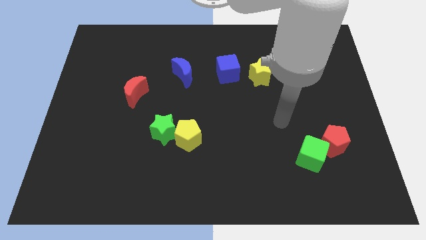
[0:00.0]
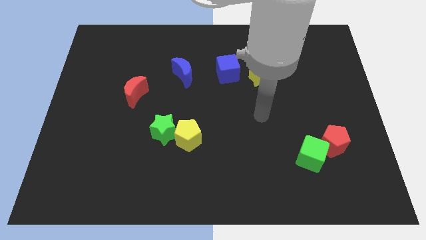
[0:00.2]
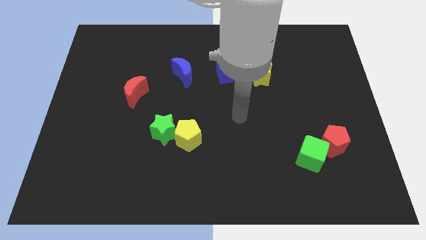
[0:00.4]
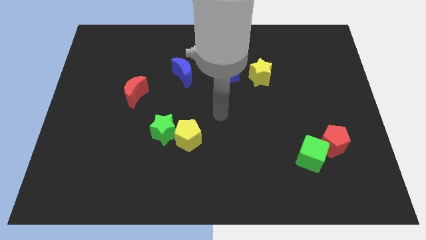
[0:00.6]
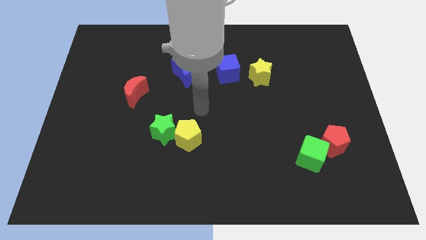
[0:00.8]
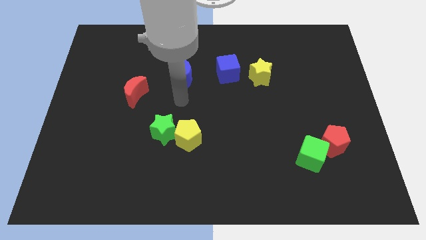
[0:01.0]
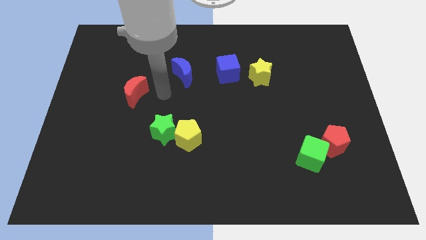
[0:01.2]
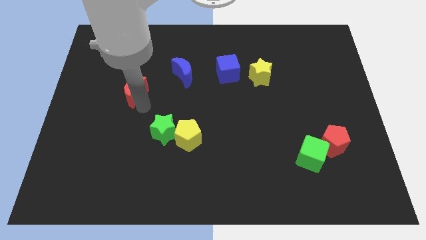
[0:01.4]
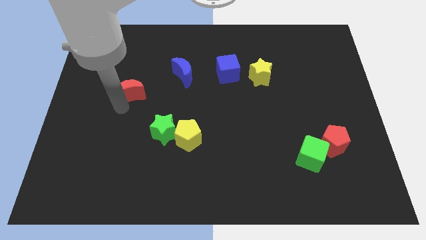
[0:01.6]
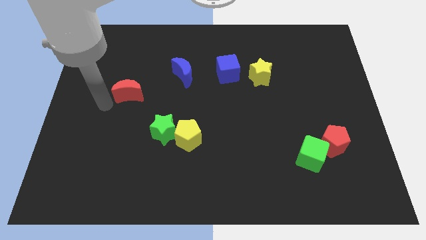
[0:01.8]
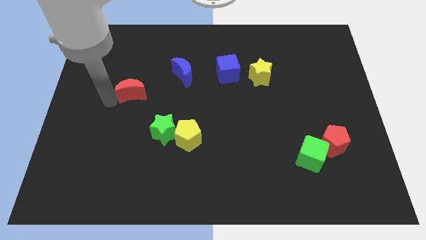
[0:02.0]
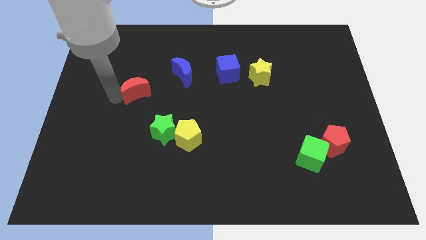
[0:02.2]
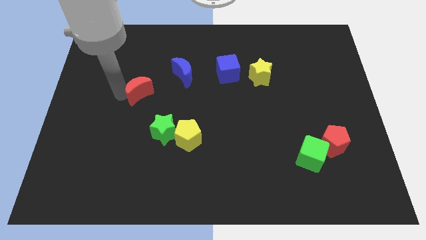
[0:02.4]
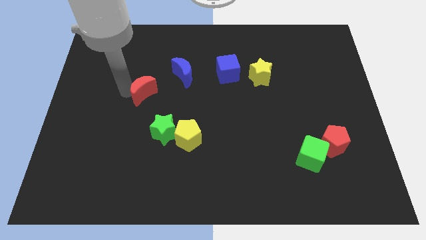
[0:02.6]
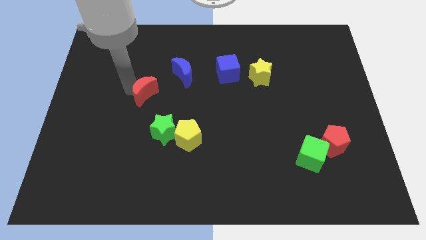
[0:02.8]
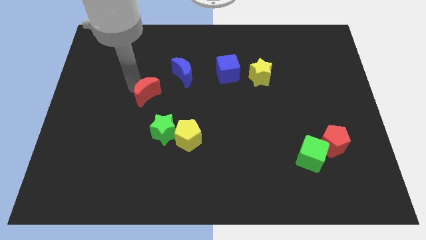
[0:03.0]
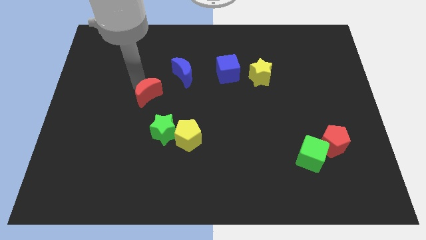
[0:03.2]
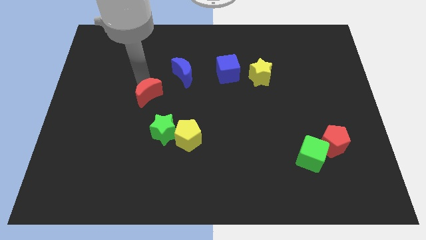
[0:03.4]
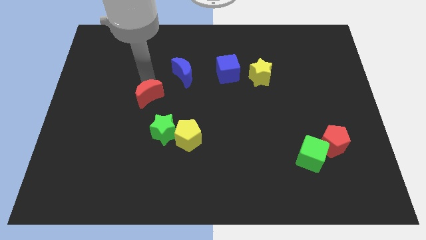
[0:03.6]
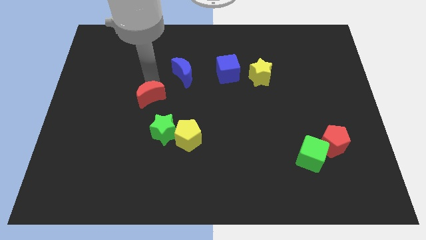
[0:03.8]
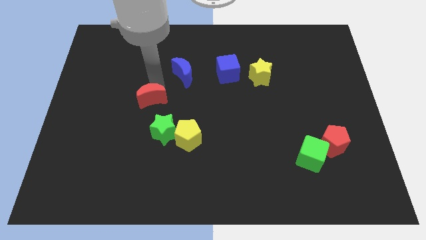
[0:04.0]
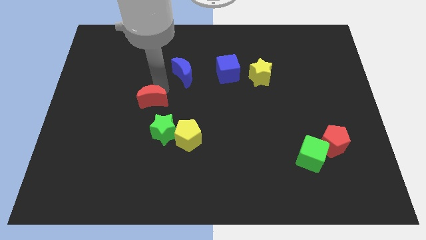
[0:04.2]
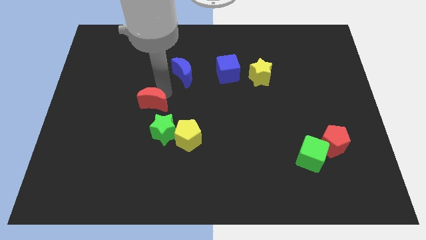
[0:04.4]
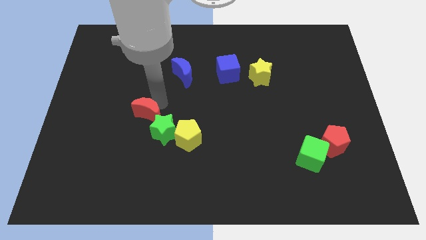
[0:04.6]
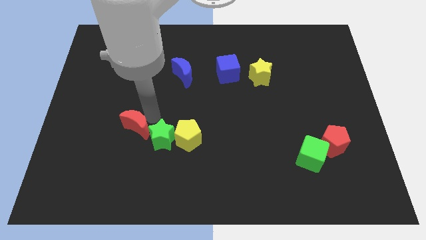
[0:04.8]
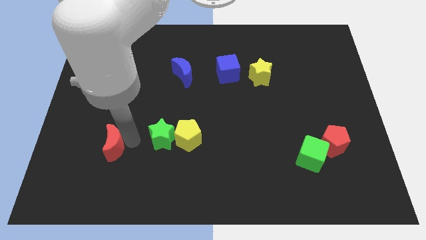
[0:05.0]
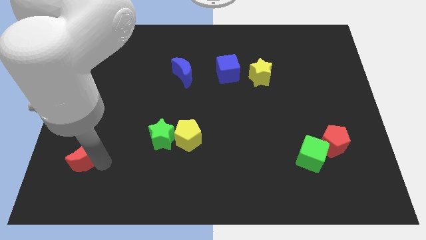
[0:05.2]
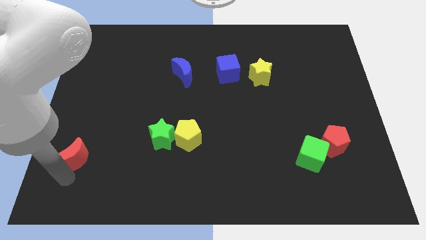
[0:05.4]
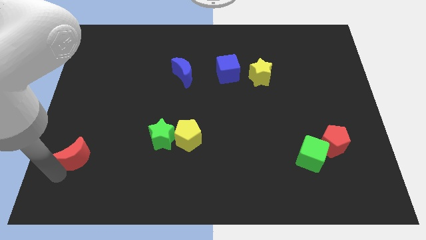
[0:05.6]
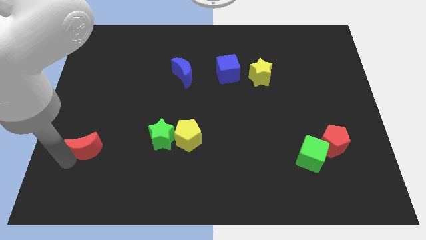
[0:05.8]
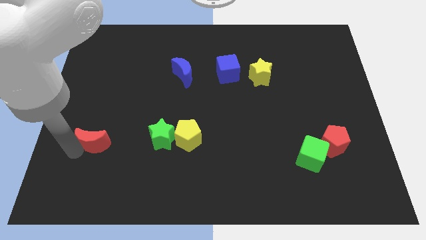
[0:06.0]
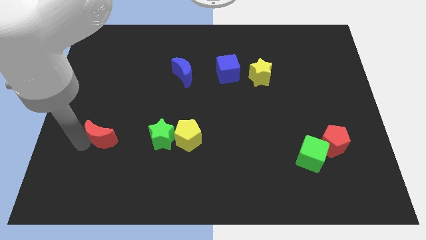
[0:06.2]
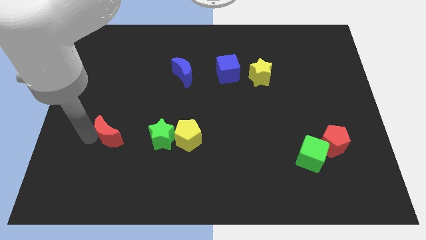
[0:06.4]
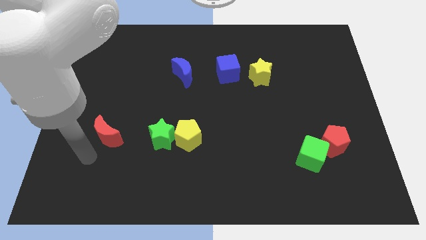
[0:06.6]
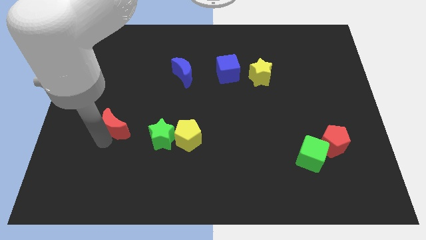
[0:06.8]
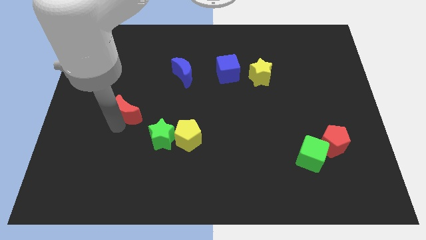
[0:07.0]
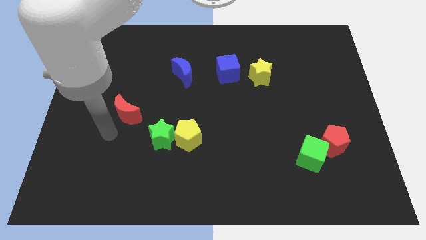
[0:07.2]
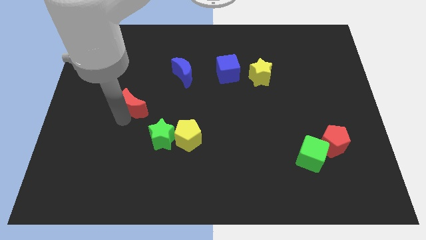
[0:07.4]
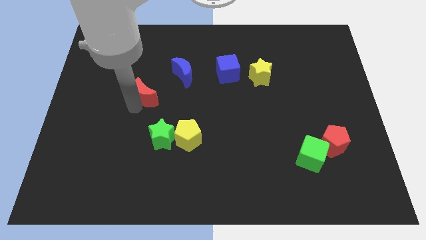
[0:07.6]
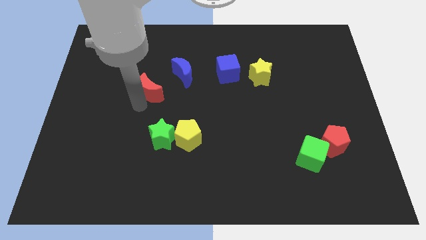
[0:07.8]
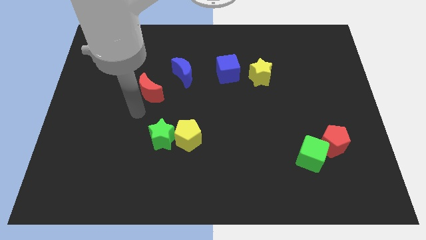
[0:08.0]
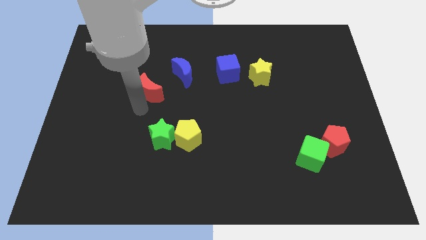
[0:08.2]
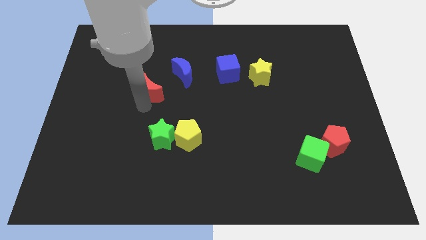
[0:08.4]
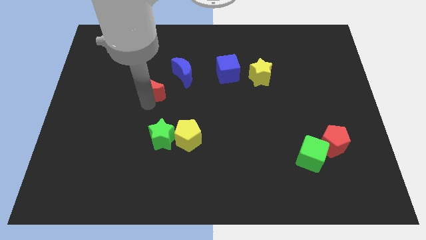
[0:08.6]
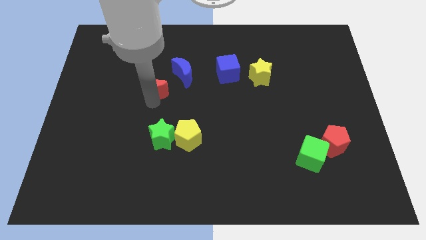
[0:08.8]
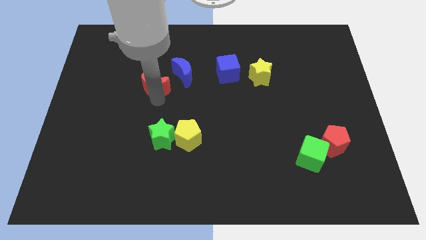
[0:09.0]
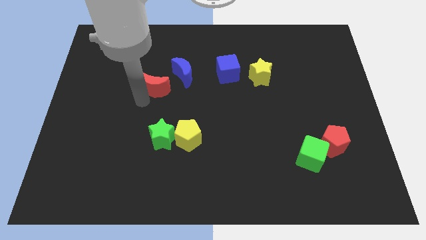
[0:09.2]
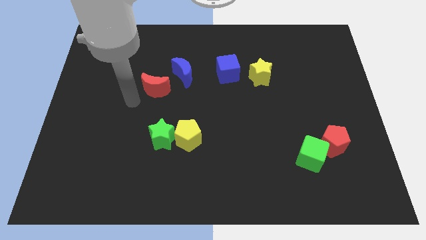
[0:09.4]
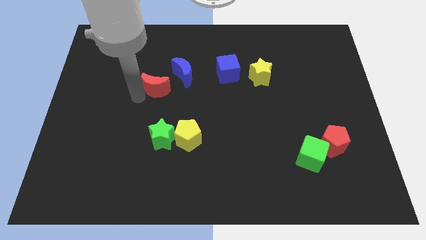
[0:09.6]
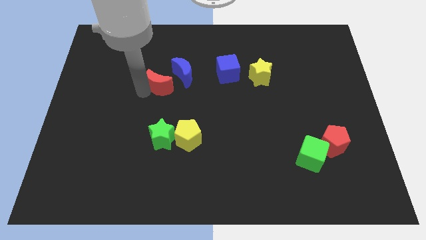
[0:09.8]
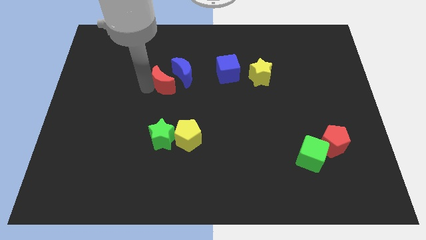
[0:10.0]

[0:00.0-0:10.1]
move the red moon towards the blue moon

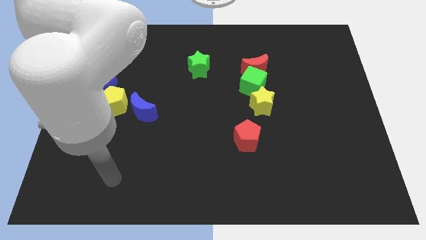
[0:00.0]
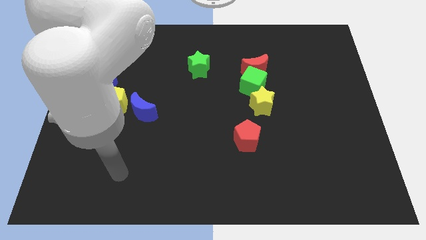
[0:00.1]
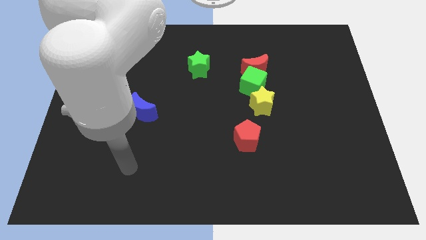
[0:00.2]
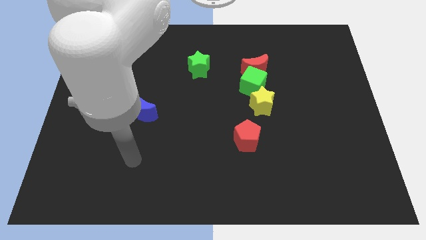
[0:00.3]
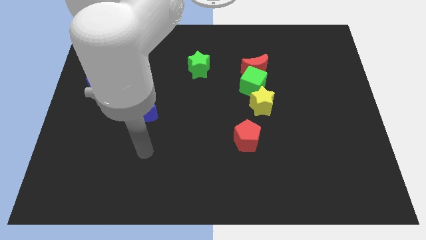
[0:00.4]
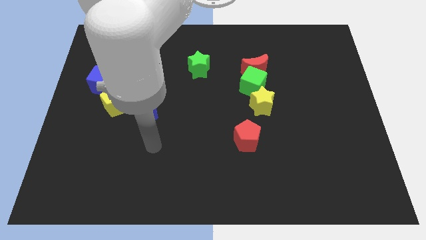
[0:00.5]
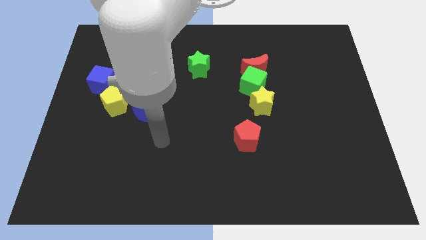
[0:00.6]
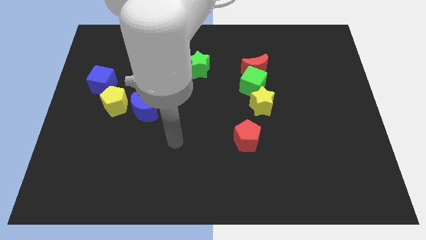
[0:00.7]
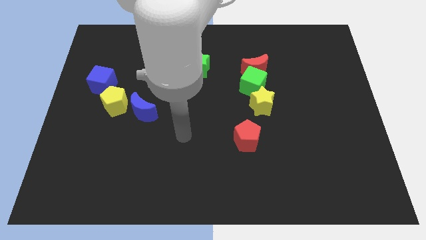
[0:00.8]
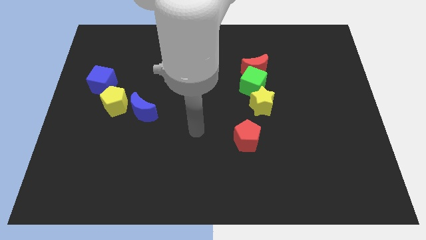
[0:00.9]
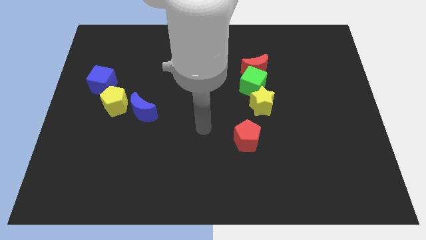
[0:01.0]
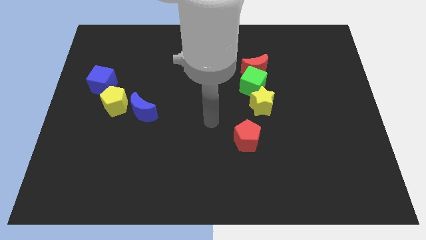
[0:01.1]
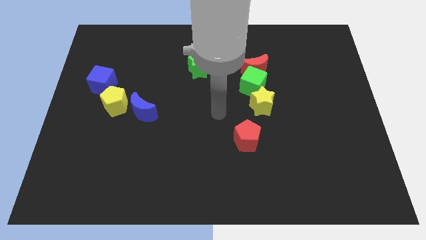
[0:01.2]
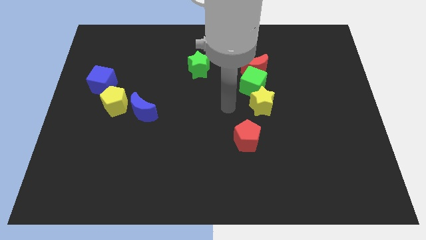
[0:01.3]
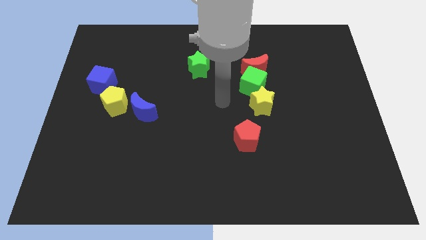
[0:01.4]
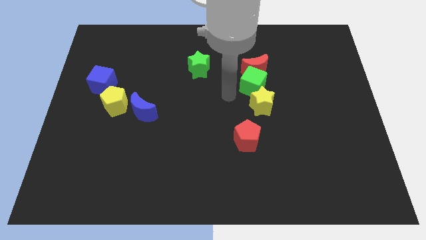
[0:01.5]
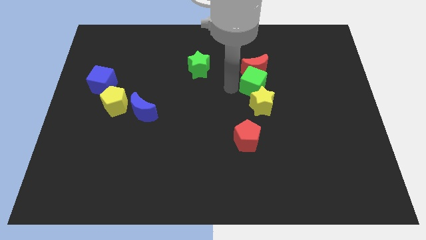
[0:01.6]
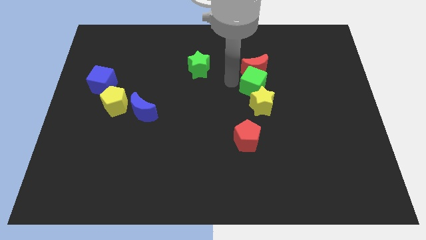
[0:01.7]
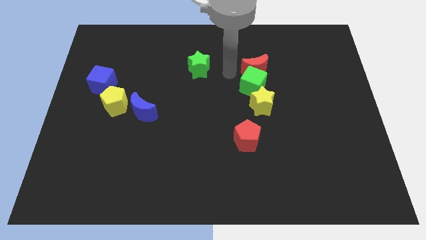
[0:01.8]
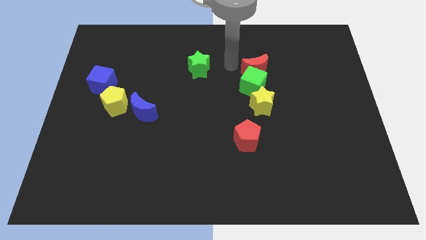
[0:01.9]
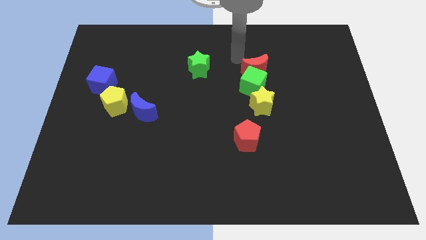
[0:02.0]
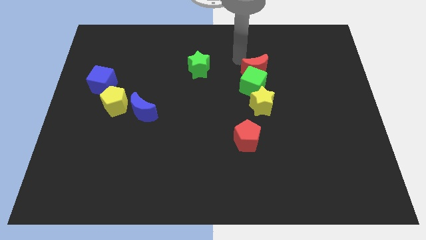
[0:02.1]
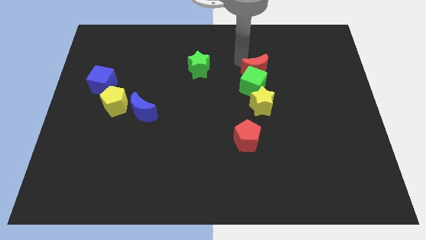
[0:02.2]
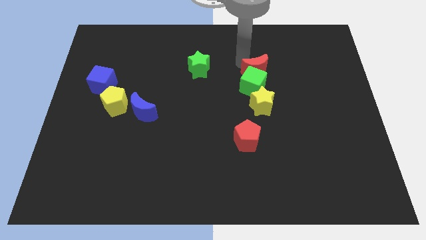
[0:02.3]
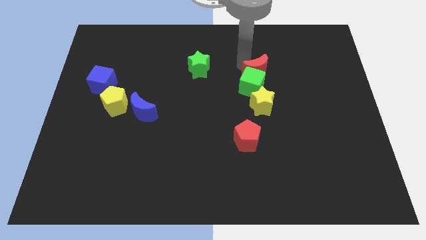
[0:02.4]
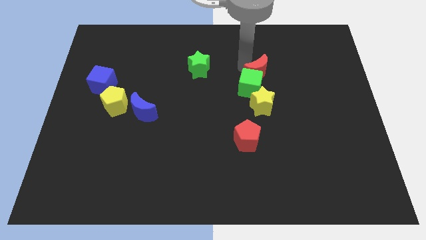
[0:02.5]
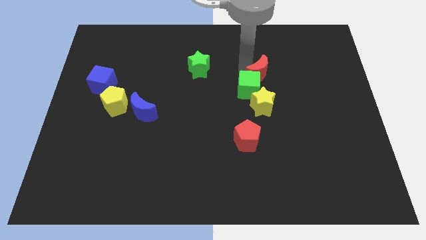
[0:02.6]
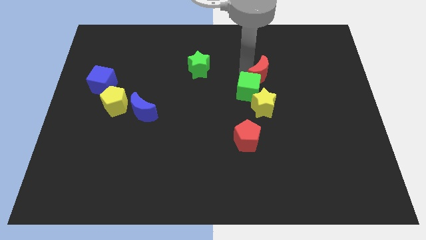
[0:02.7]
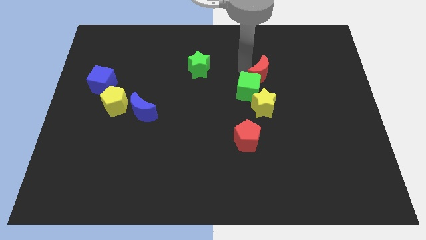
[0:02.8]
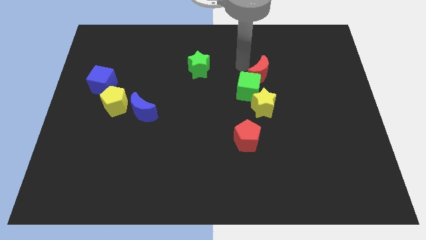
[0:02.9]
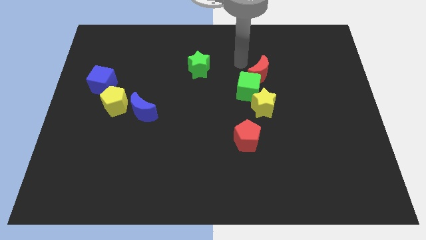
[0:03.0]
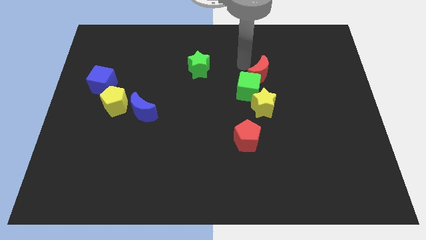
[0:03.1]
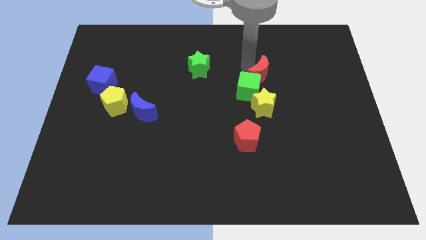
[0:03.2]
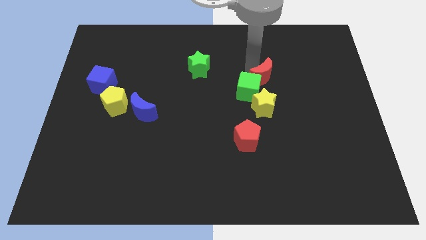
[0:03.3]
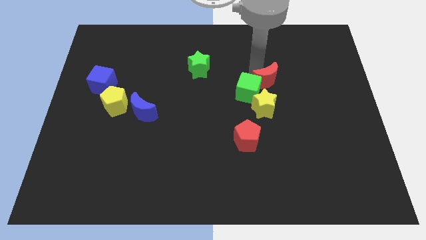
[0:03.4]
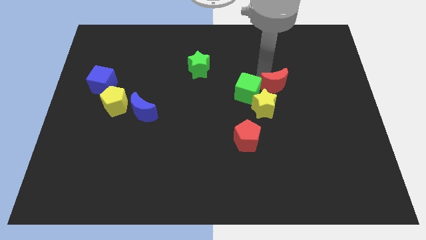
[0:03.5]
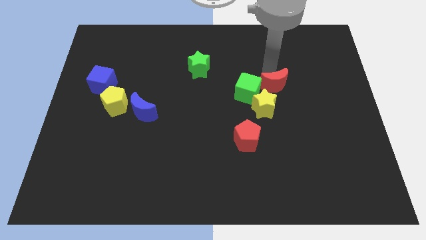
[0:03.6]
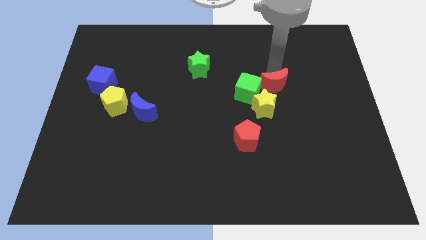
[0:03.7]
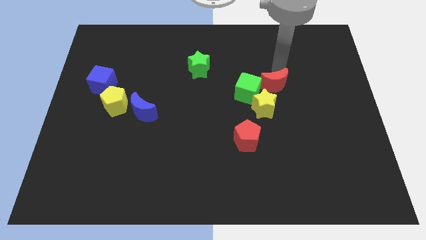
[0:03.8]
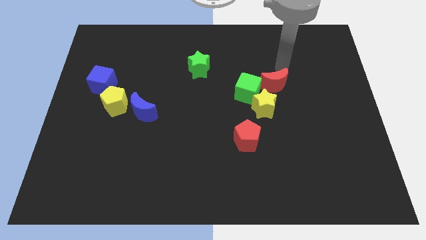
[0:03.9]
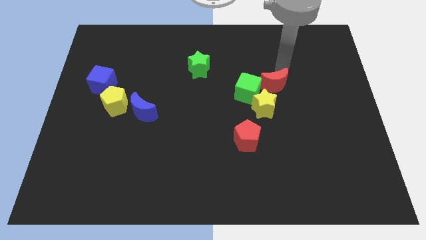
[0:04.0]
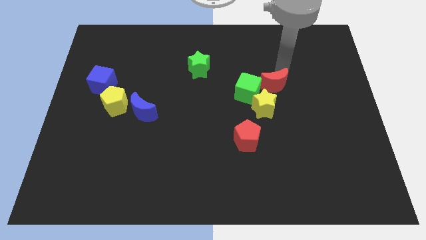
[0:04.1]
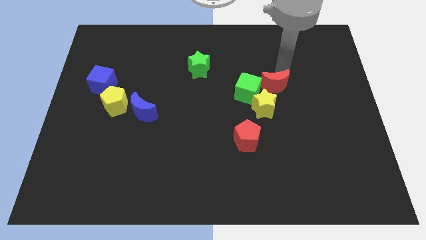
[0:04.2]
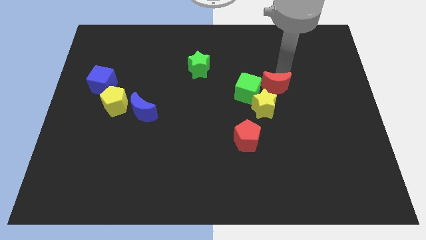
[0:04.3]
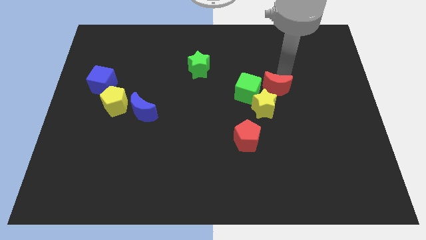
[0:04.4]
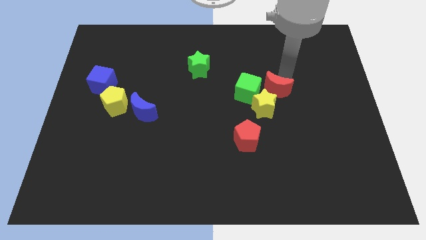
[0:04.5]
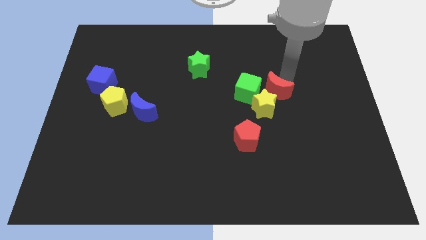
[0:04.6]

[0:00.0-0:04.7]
slide the red moon next to the yellow star
